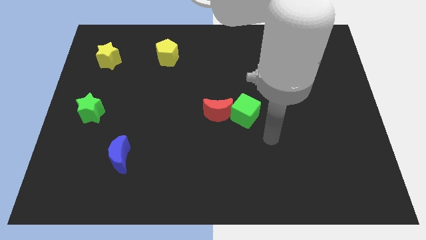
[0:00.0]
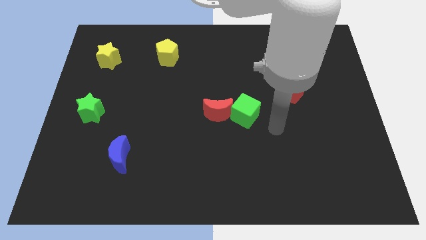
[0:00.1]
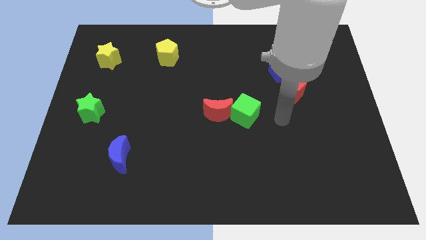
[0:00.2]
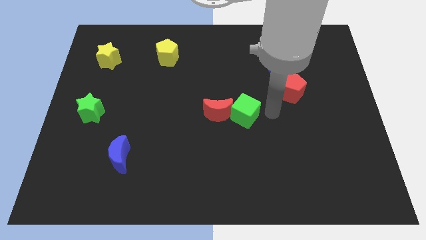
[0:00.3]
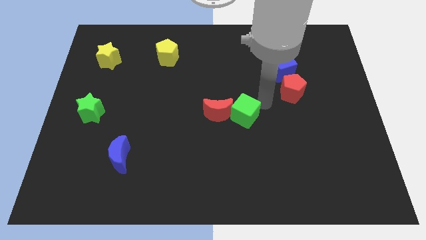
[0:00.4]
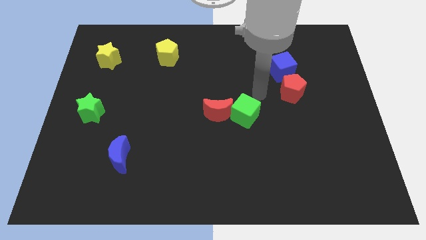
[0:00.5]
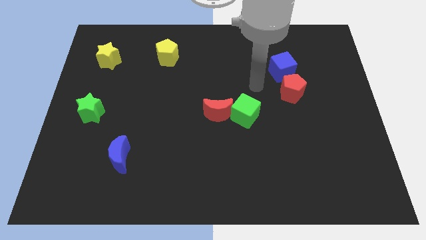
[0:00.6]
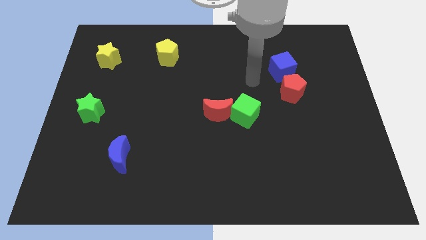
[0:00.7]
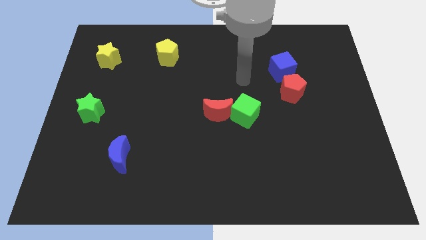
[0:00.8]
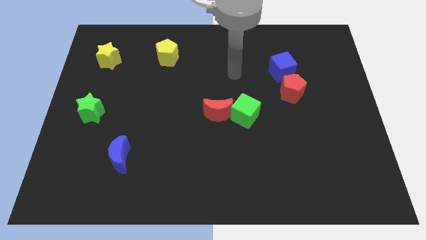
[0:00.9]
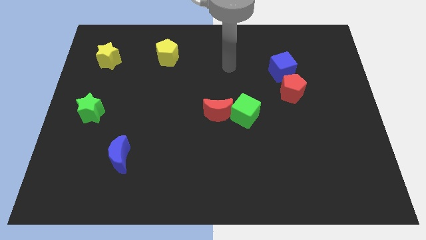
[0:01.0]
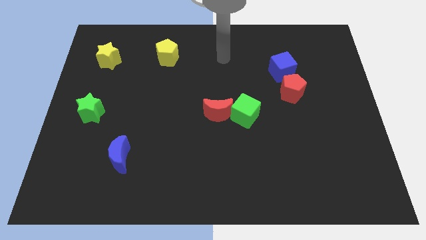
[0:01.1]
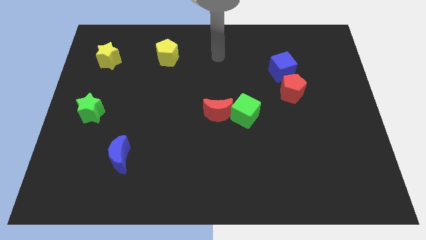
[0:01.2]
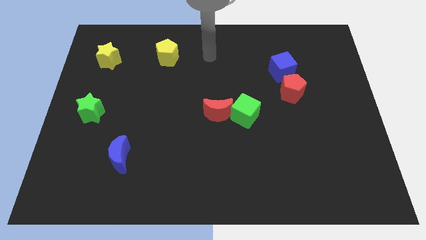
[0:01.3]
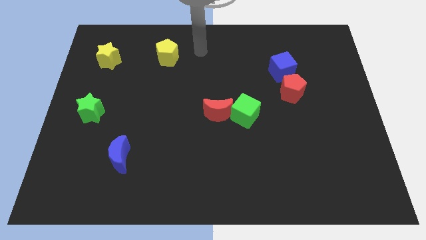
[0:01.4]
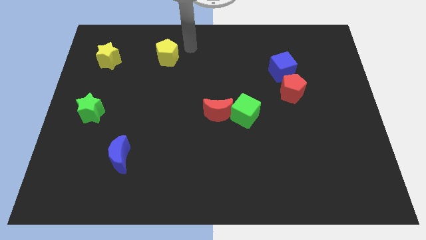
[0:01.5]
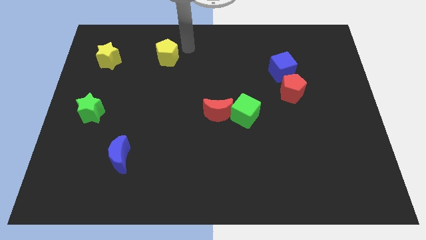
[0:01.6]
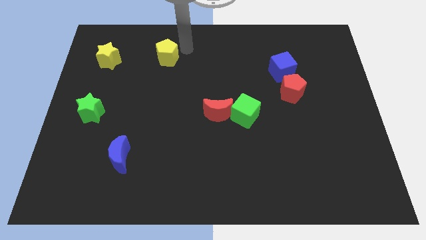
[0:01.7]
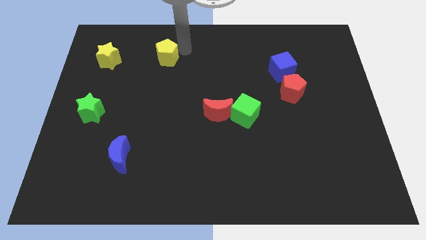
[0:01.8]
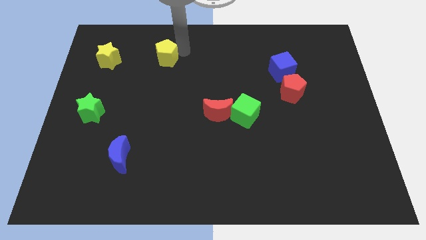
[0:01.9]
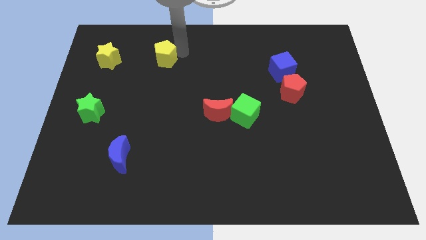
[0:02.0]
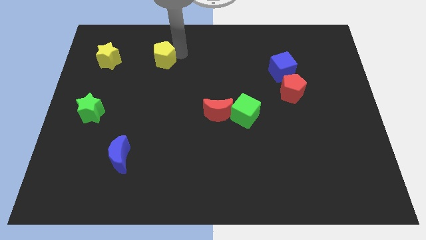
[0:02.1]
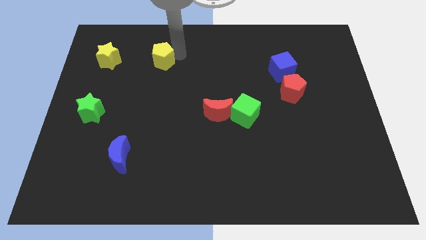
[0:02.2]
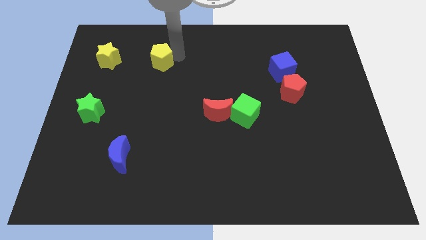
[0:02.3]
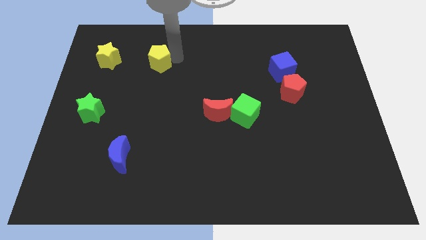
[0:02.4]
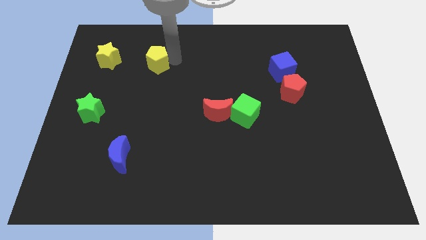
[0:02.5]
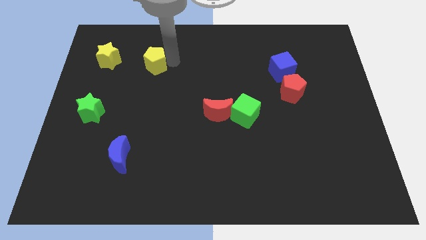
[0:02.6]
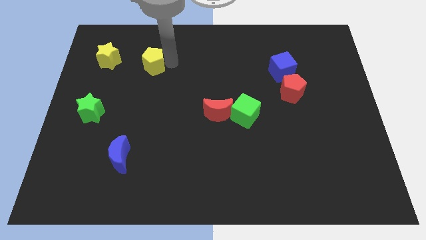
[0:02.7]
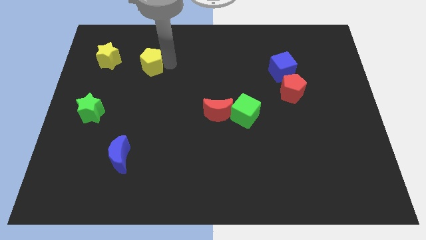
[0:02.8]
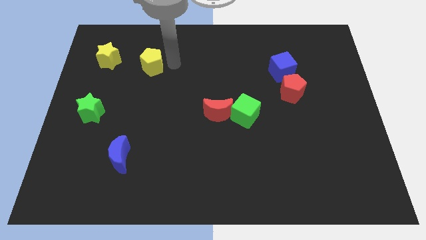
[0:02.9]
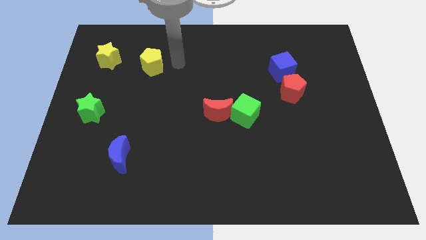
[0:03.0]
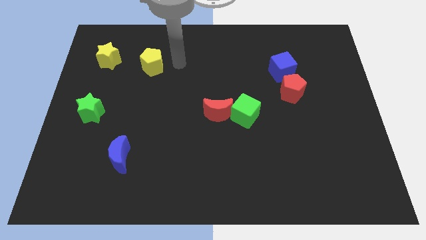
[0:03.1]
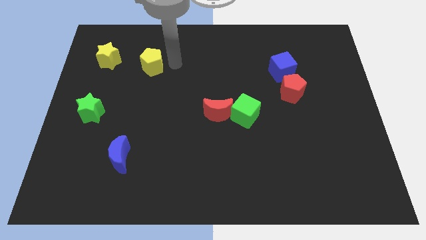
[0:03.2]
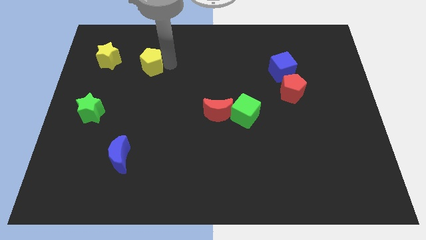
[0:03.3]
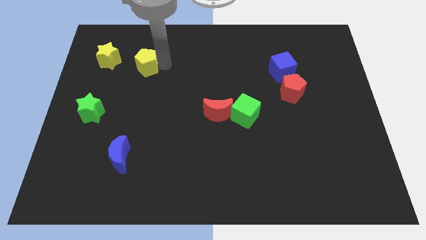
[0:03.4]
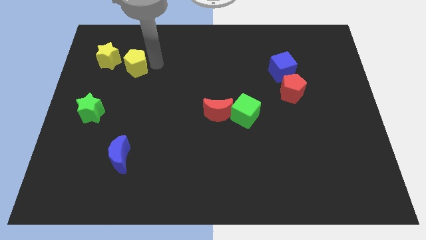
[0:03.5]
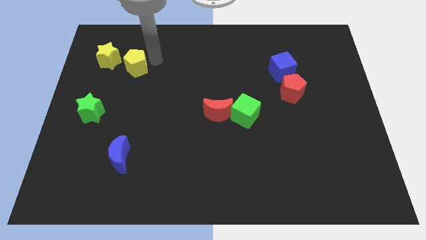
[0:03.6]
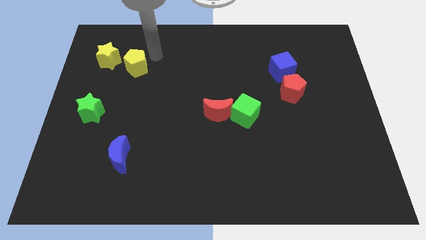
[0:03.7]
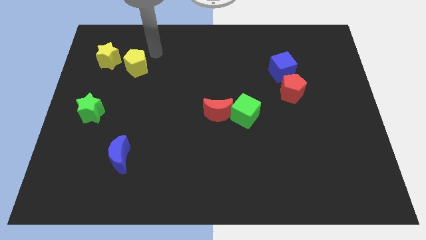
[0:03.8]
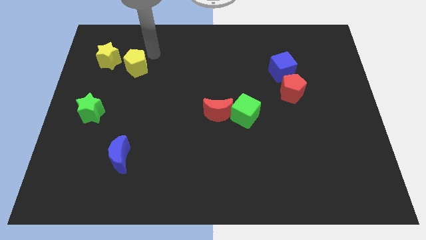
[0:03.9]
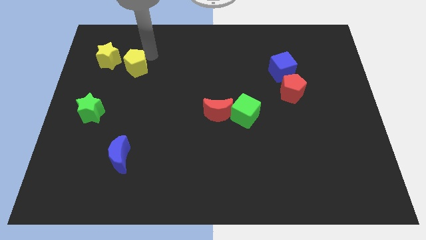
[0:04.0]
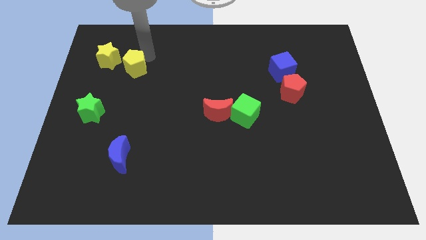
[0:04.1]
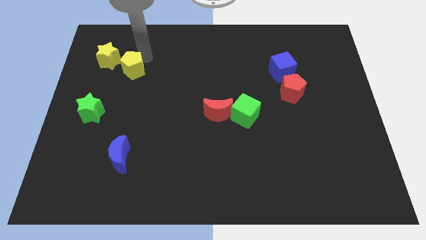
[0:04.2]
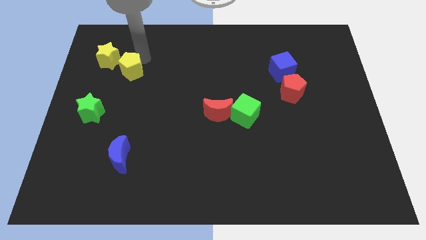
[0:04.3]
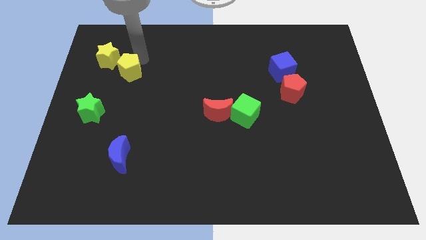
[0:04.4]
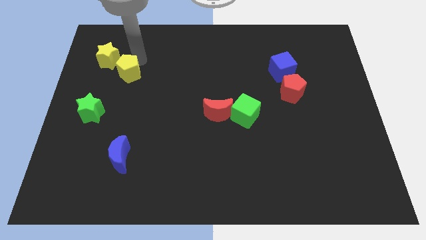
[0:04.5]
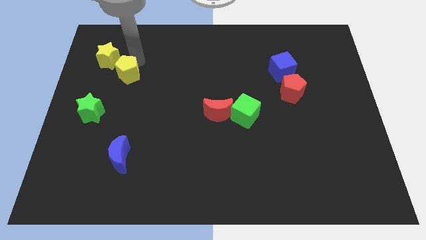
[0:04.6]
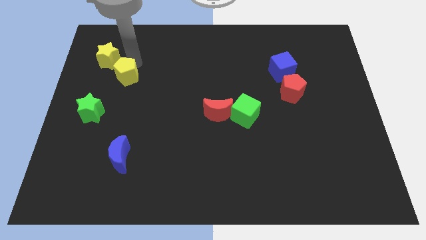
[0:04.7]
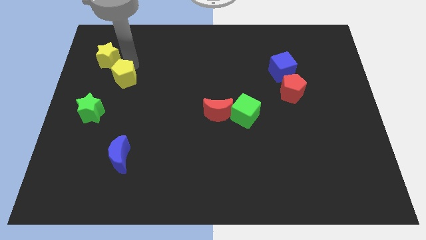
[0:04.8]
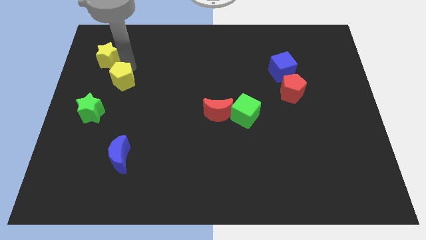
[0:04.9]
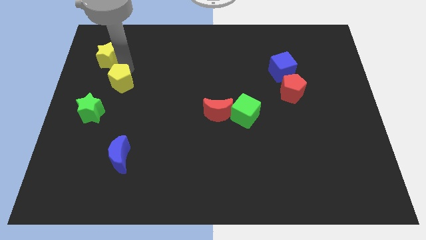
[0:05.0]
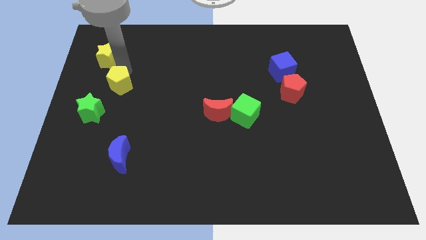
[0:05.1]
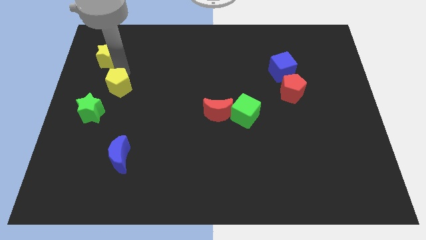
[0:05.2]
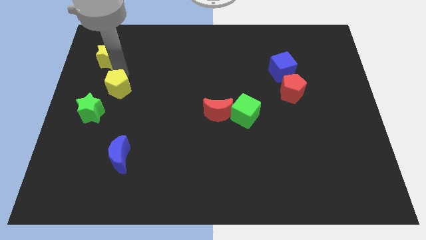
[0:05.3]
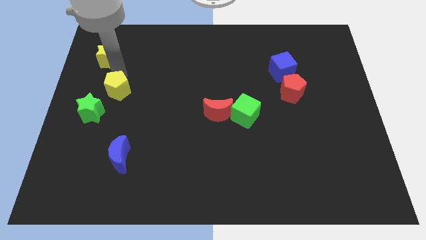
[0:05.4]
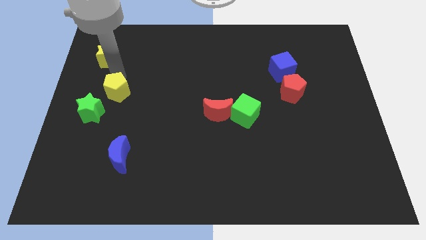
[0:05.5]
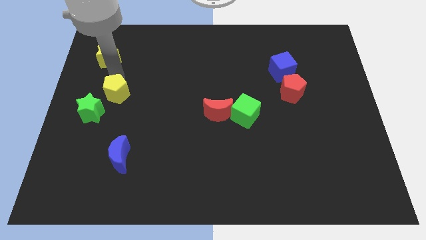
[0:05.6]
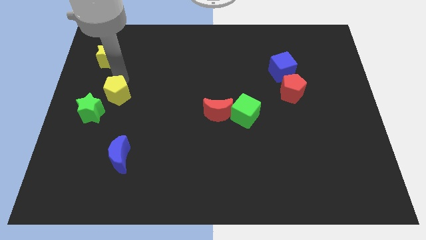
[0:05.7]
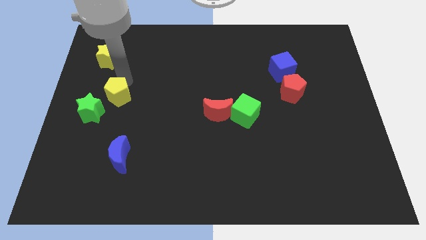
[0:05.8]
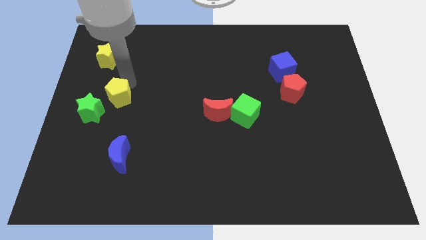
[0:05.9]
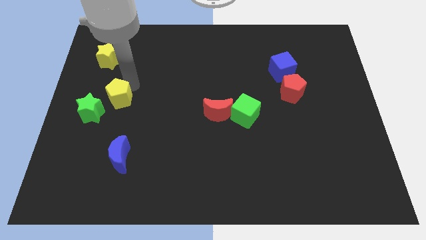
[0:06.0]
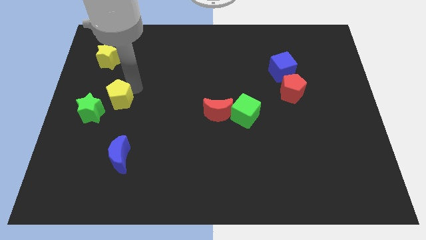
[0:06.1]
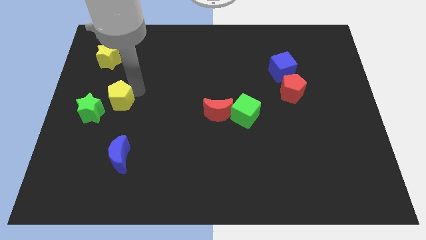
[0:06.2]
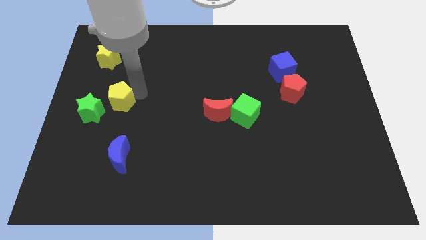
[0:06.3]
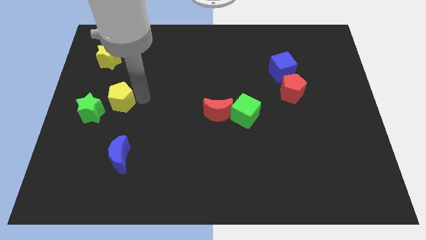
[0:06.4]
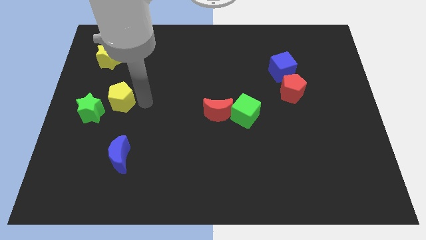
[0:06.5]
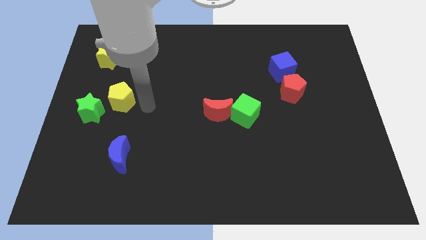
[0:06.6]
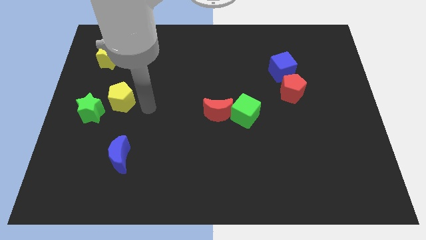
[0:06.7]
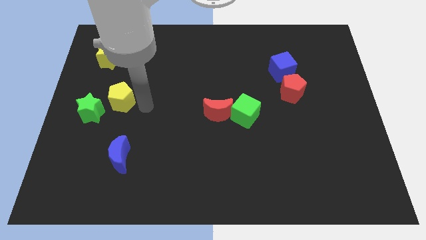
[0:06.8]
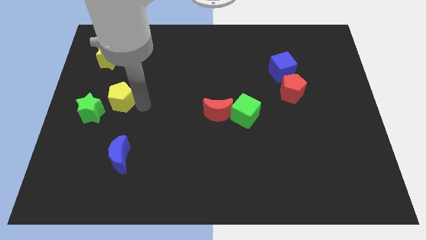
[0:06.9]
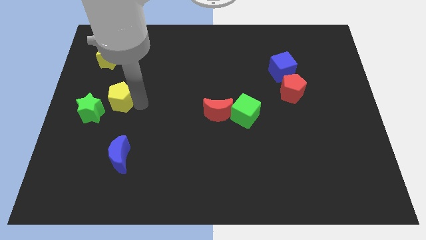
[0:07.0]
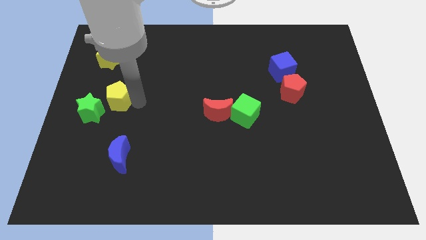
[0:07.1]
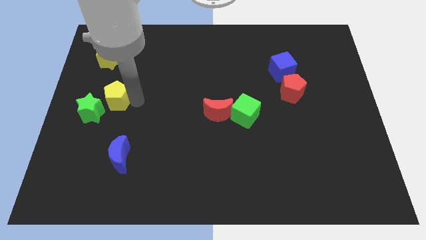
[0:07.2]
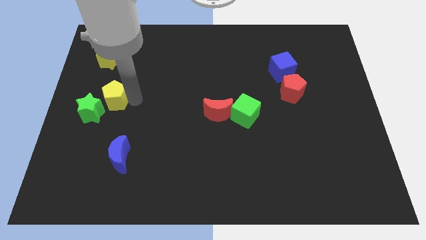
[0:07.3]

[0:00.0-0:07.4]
push the yellow pentagon close to the green star

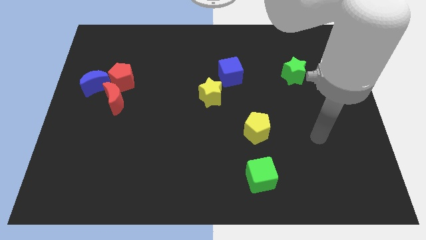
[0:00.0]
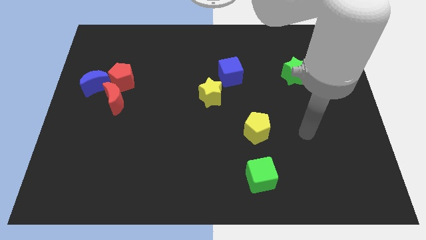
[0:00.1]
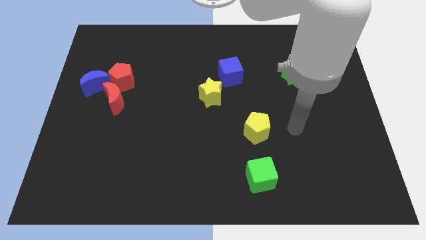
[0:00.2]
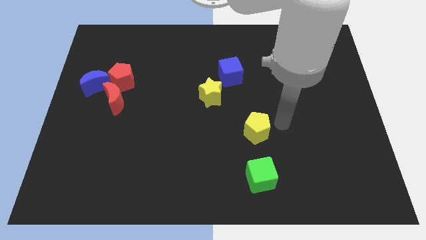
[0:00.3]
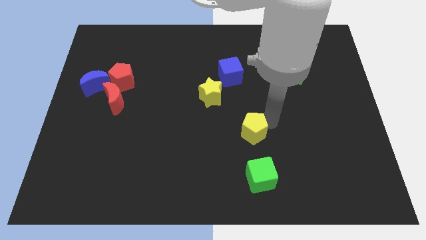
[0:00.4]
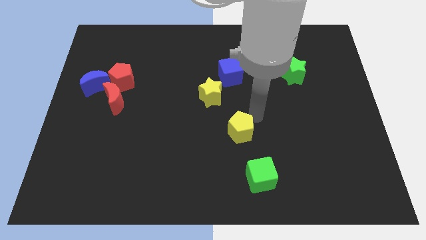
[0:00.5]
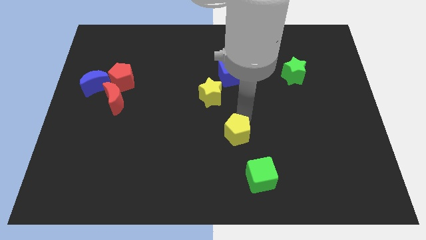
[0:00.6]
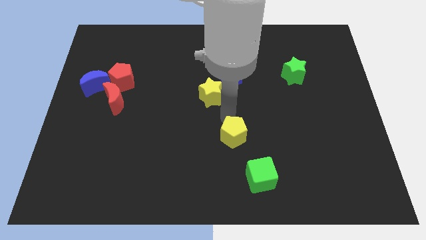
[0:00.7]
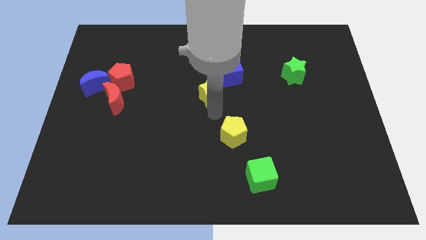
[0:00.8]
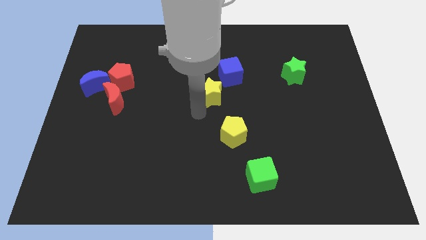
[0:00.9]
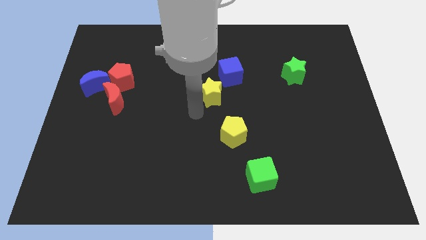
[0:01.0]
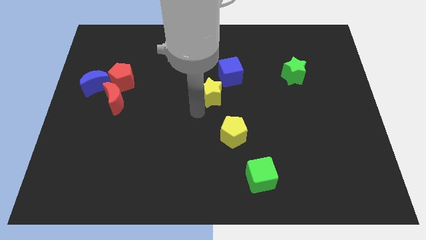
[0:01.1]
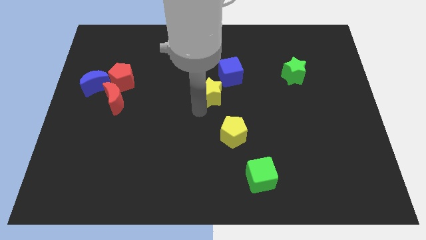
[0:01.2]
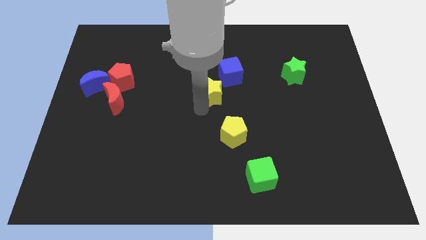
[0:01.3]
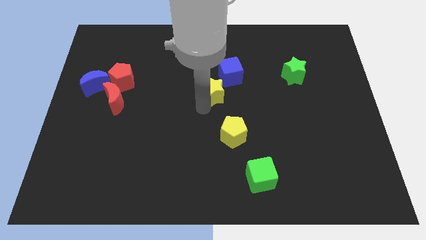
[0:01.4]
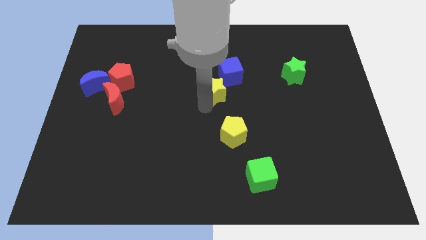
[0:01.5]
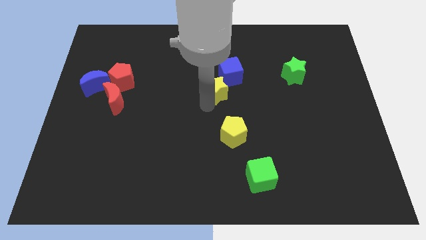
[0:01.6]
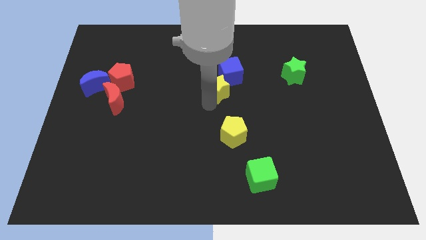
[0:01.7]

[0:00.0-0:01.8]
push the yellow star to the blue cube
